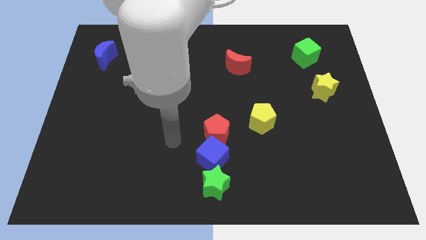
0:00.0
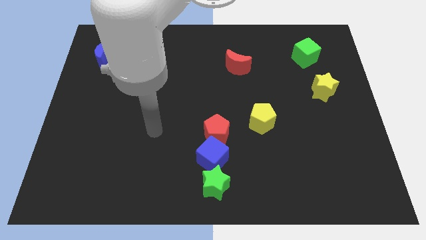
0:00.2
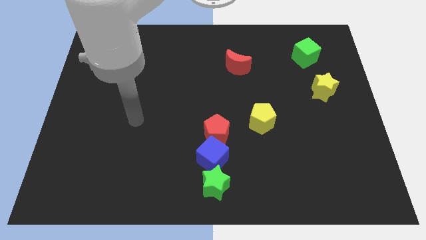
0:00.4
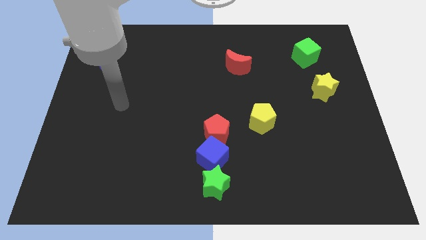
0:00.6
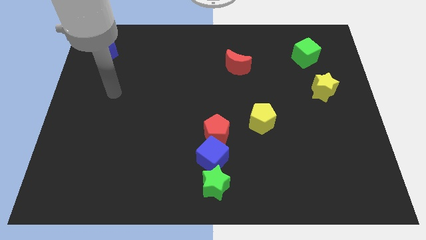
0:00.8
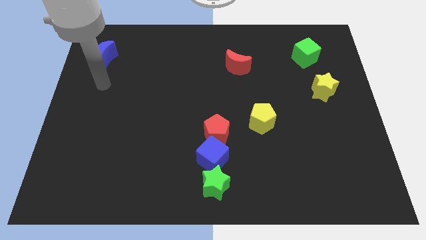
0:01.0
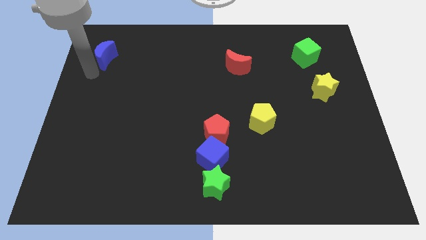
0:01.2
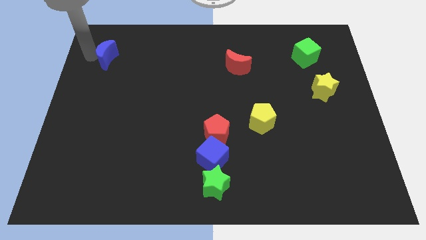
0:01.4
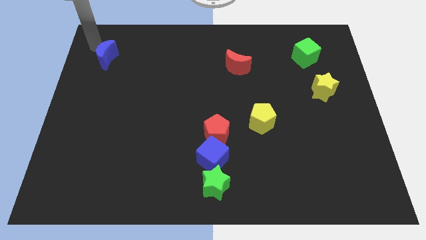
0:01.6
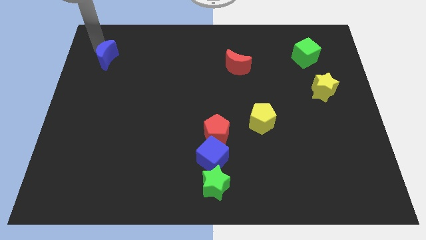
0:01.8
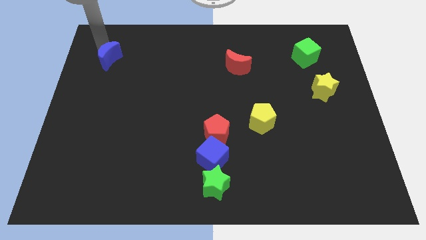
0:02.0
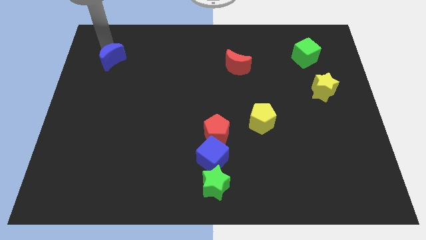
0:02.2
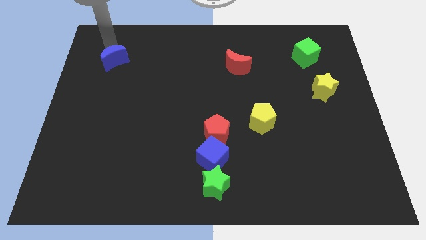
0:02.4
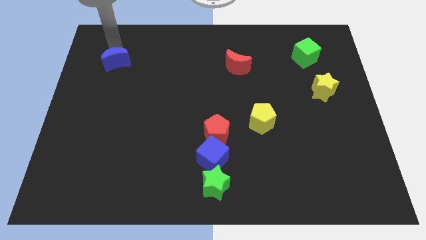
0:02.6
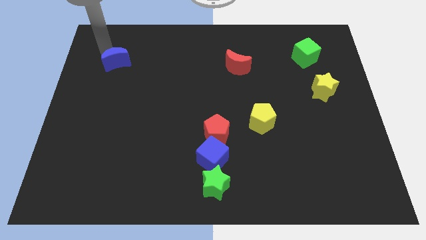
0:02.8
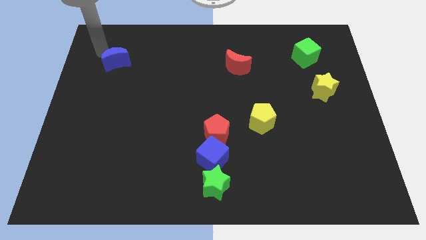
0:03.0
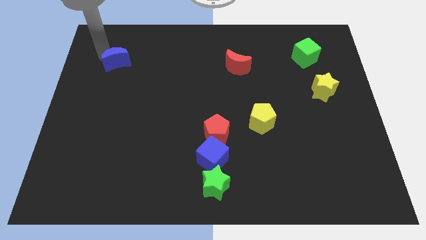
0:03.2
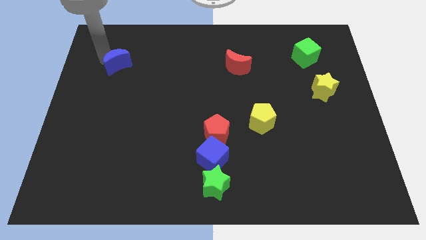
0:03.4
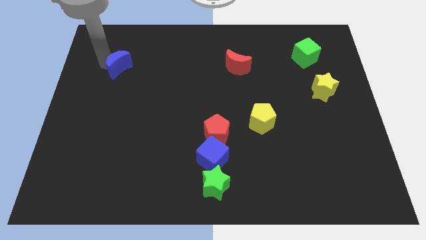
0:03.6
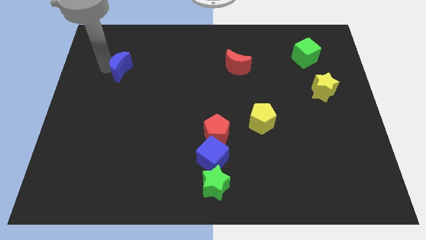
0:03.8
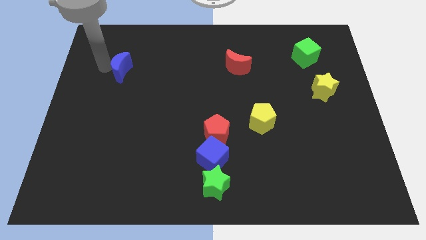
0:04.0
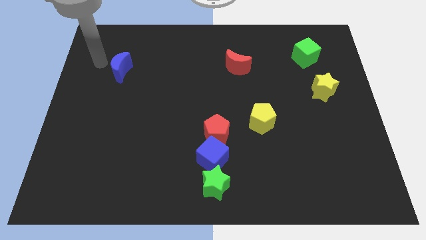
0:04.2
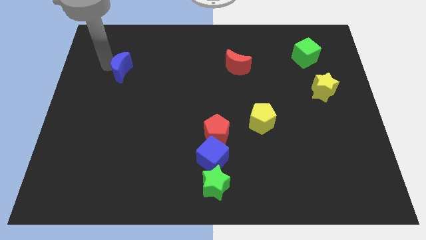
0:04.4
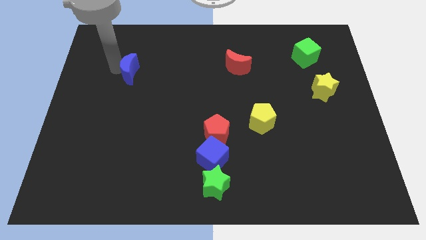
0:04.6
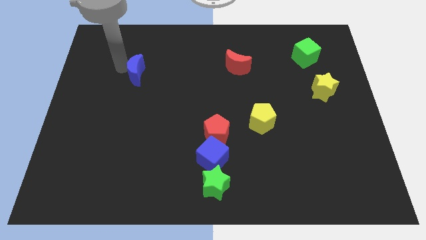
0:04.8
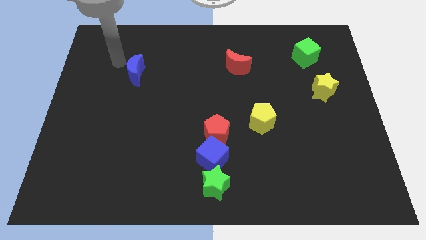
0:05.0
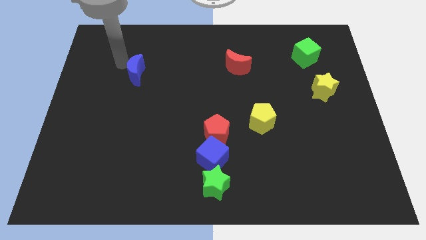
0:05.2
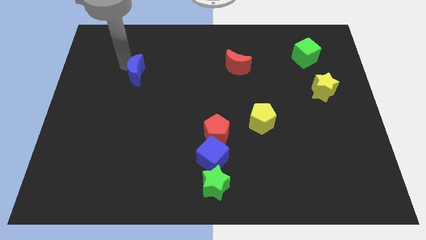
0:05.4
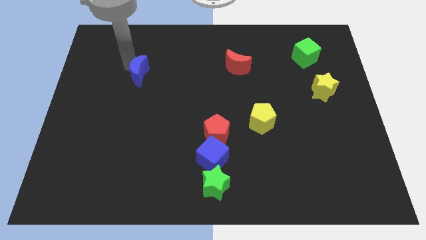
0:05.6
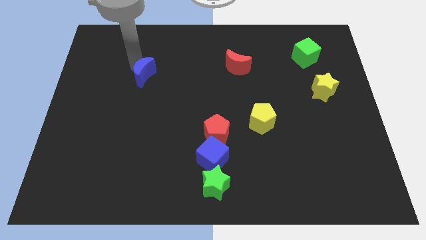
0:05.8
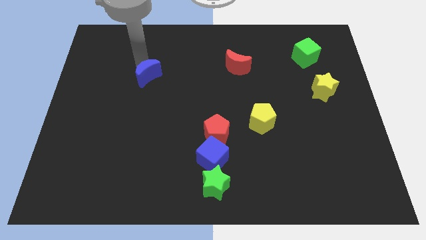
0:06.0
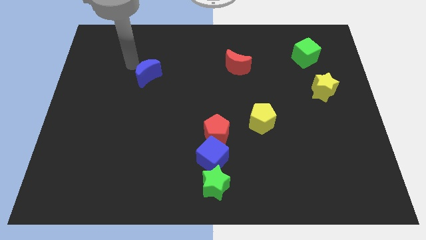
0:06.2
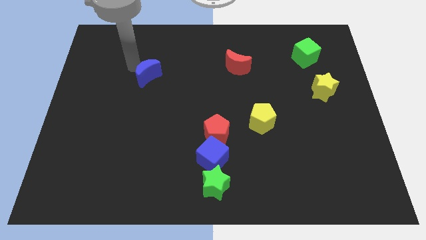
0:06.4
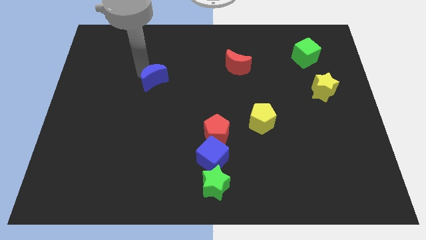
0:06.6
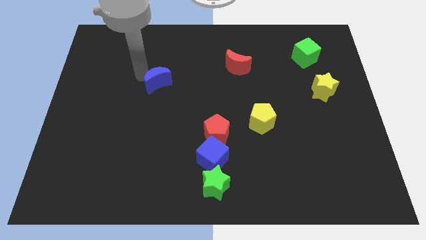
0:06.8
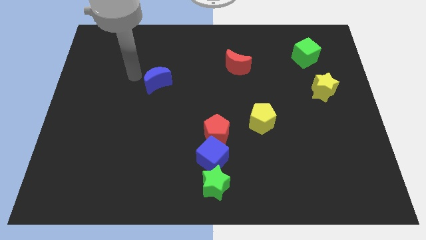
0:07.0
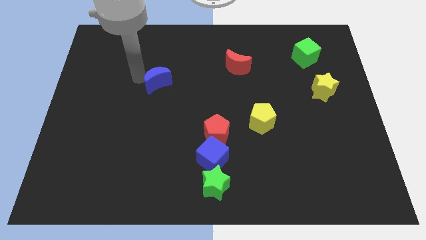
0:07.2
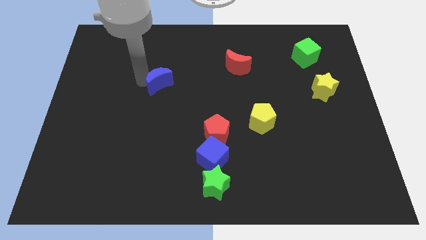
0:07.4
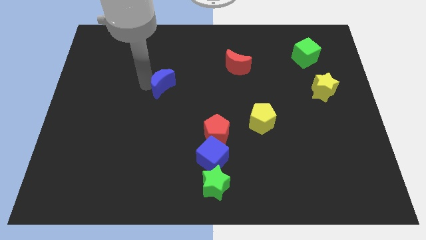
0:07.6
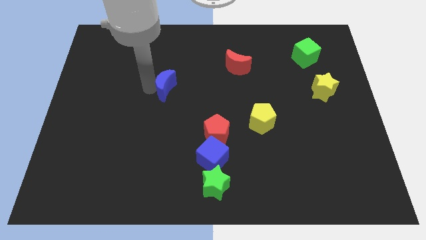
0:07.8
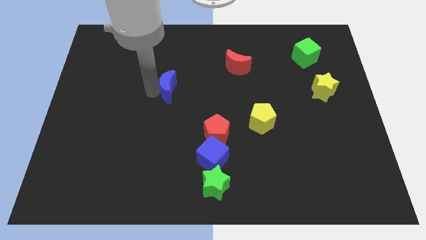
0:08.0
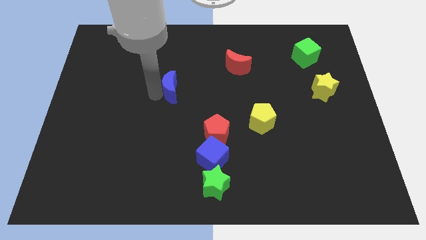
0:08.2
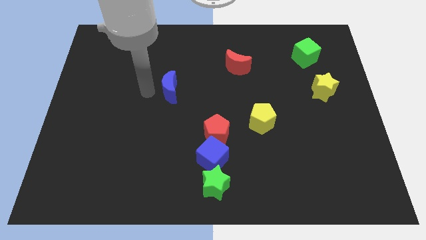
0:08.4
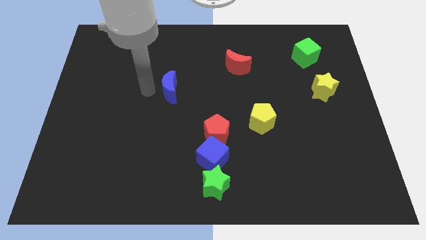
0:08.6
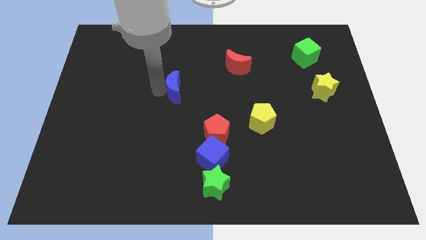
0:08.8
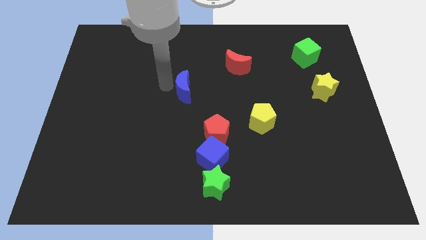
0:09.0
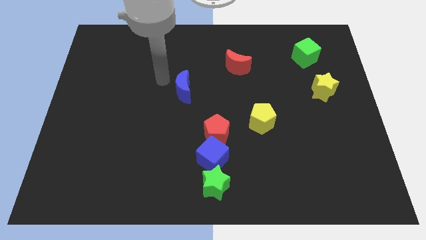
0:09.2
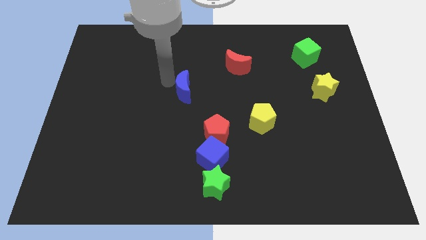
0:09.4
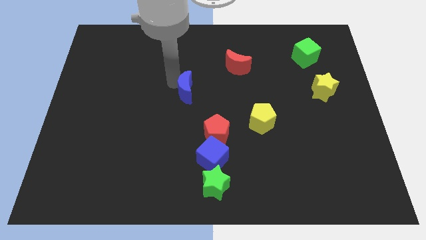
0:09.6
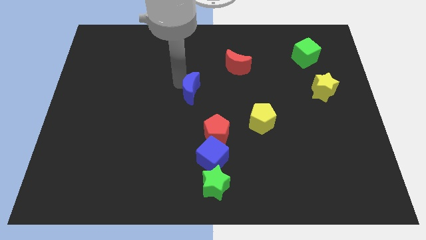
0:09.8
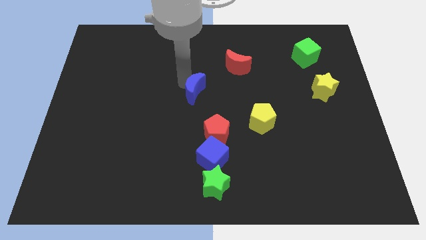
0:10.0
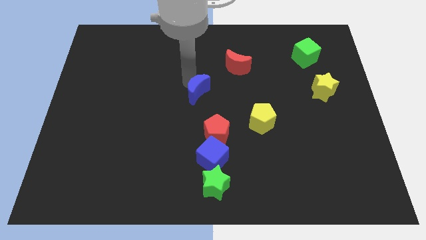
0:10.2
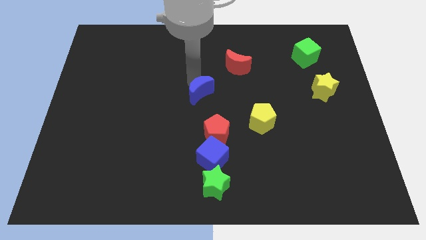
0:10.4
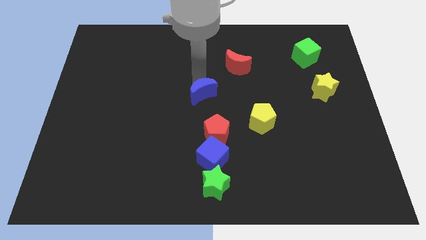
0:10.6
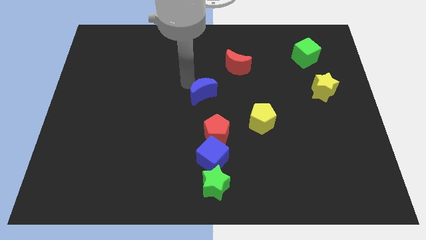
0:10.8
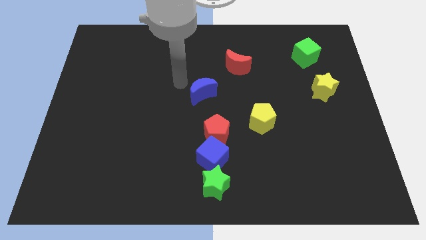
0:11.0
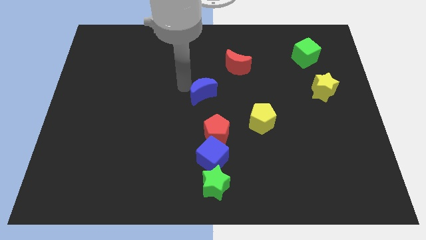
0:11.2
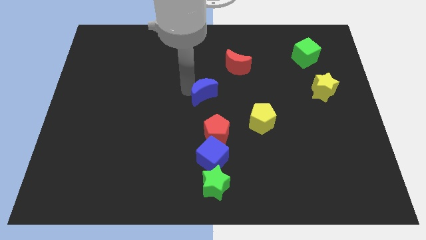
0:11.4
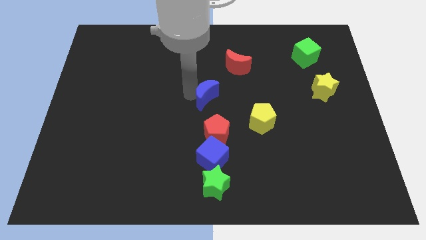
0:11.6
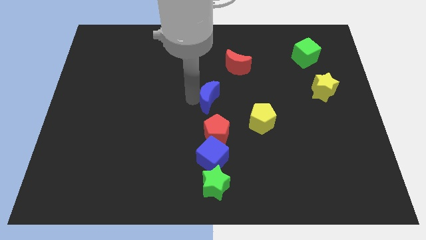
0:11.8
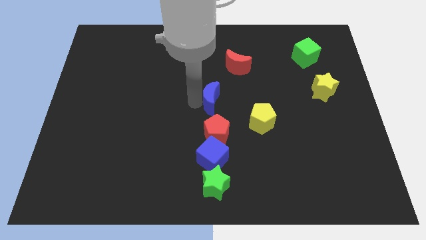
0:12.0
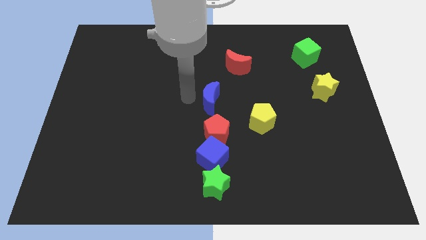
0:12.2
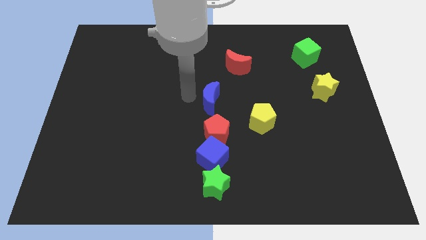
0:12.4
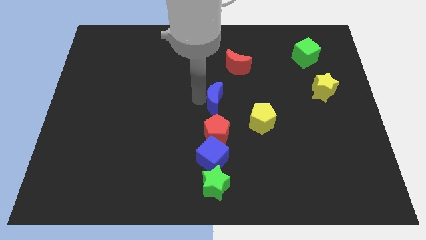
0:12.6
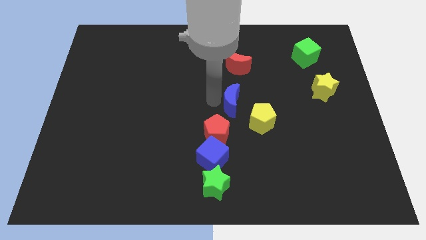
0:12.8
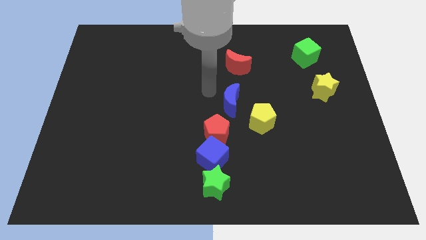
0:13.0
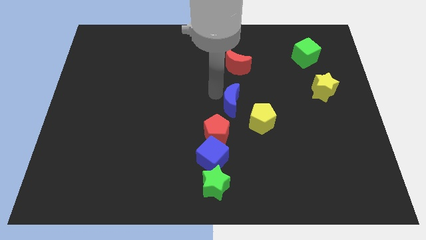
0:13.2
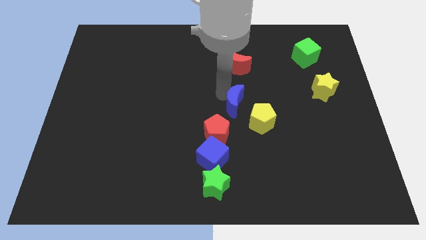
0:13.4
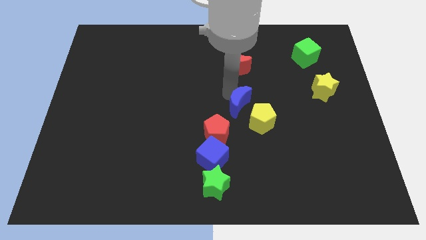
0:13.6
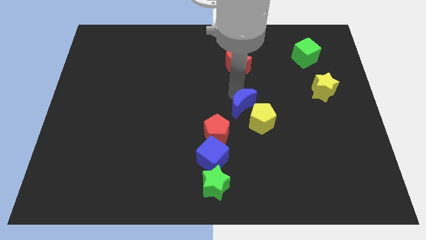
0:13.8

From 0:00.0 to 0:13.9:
put the blue moon to the yellow pentagon
